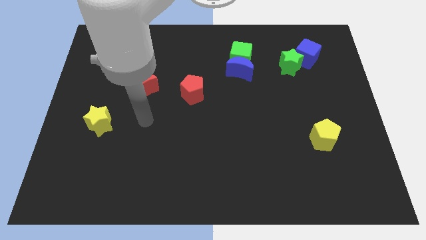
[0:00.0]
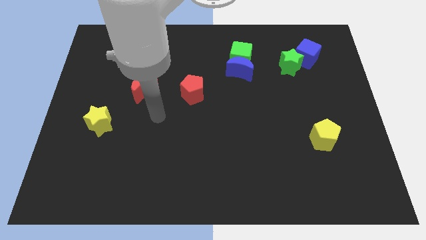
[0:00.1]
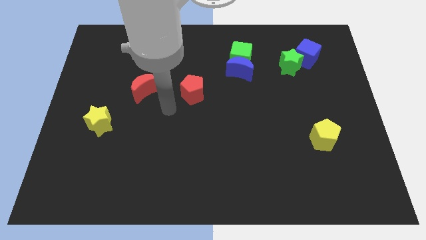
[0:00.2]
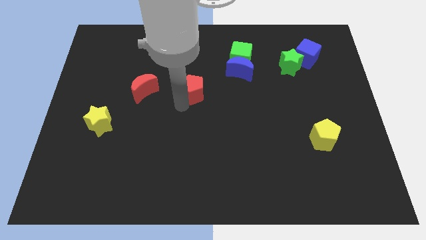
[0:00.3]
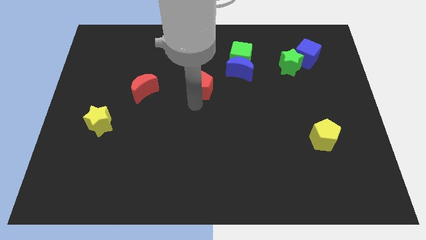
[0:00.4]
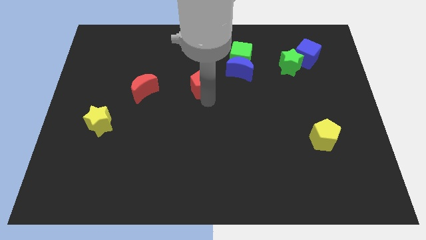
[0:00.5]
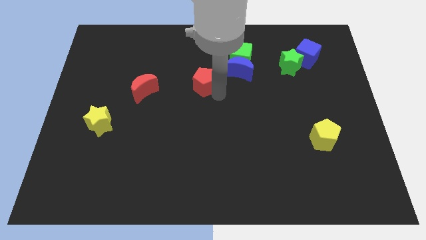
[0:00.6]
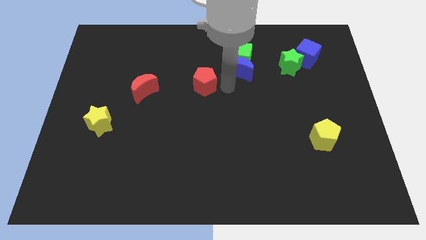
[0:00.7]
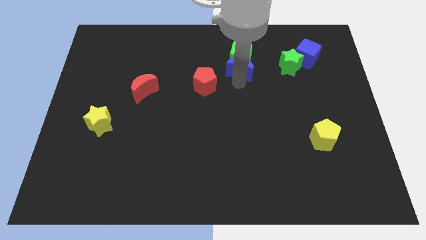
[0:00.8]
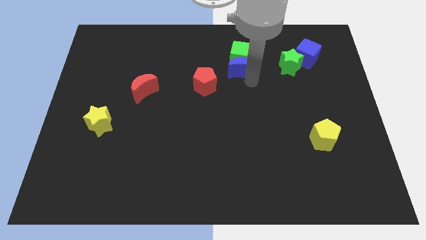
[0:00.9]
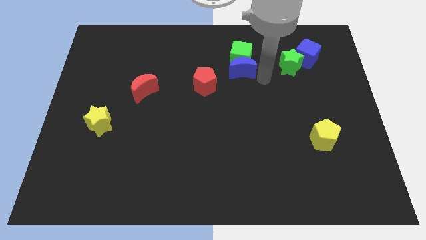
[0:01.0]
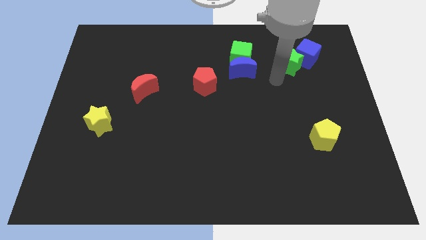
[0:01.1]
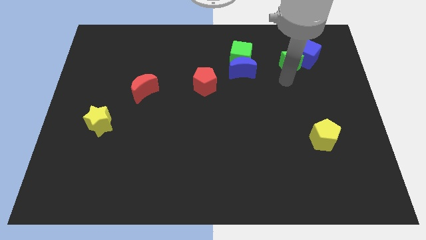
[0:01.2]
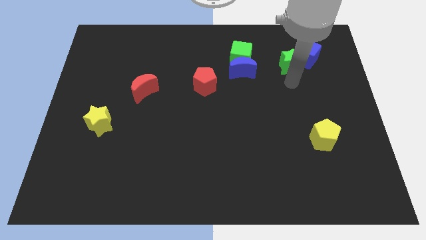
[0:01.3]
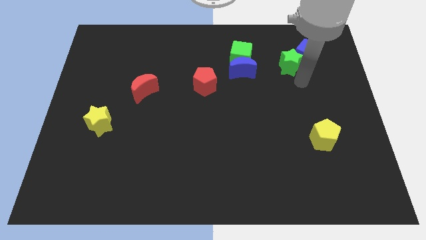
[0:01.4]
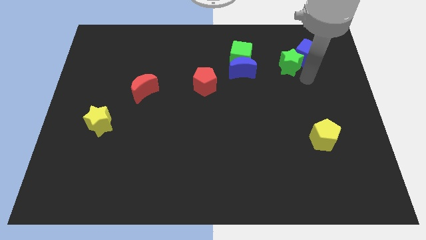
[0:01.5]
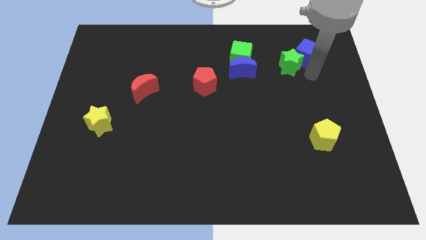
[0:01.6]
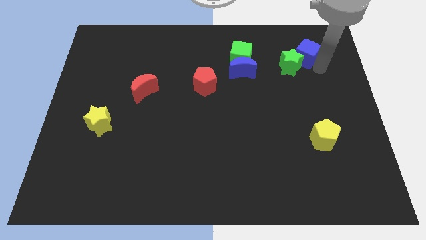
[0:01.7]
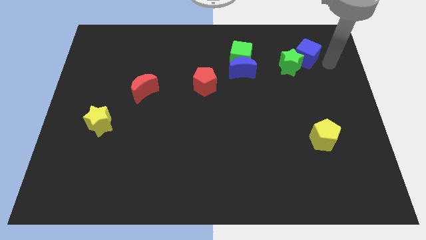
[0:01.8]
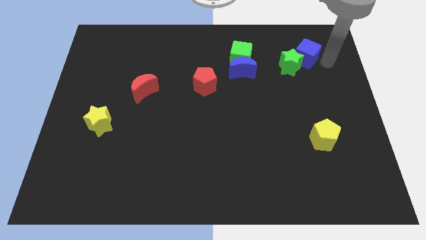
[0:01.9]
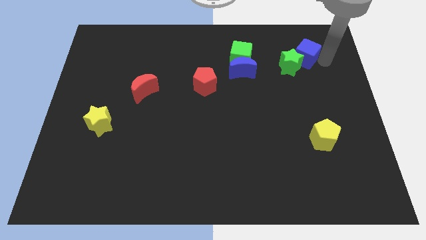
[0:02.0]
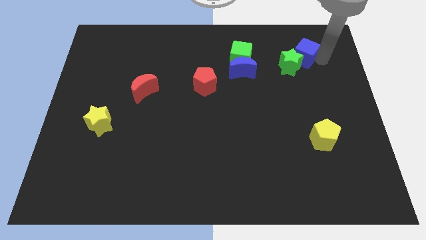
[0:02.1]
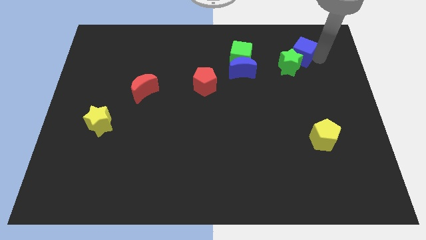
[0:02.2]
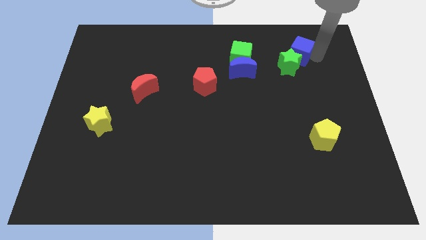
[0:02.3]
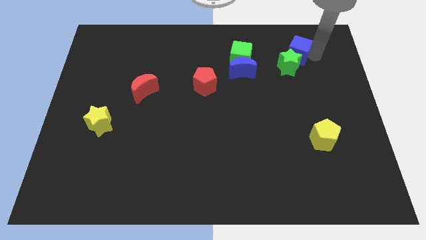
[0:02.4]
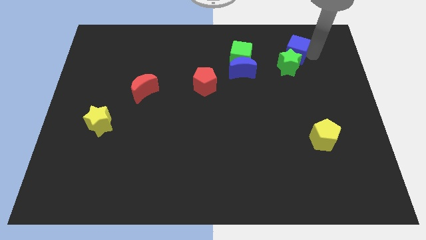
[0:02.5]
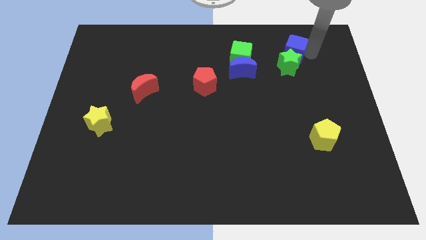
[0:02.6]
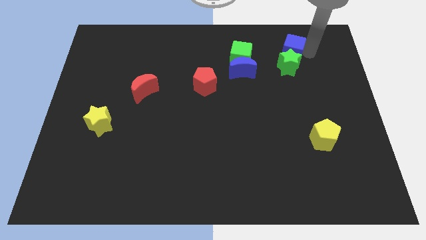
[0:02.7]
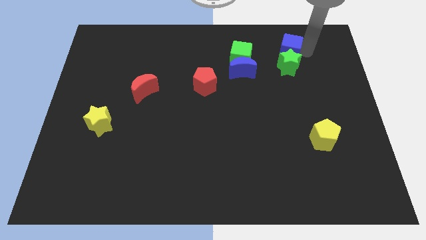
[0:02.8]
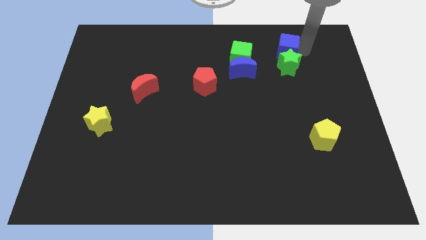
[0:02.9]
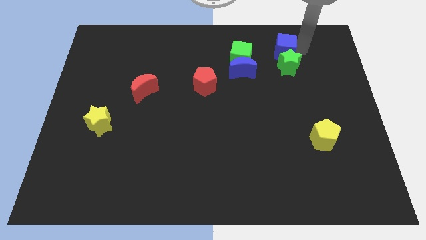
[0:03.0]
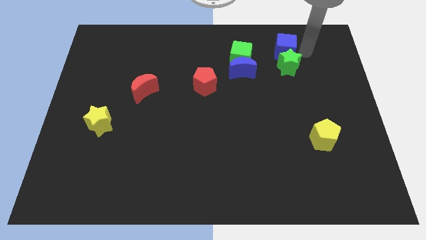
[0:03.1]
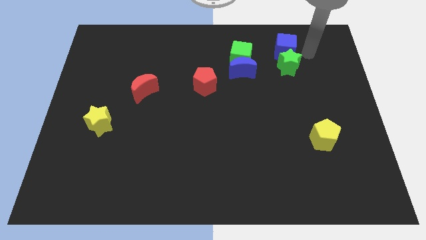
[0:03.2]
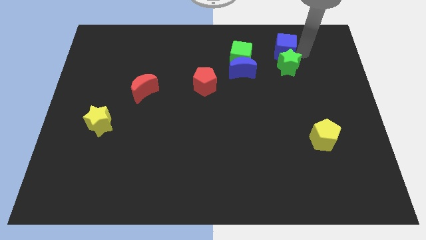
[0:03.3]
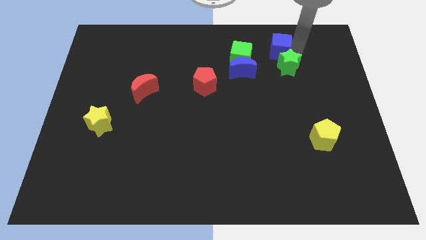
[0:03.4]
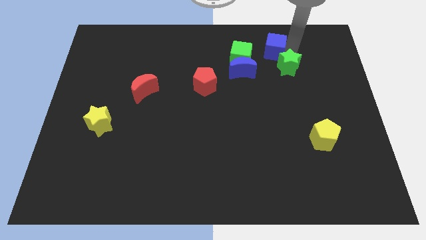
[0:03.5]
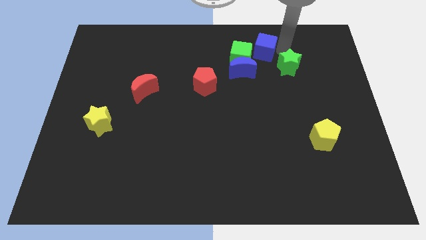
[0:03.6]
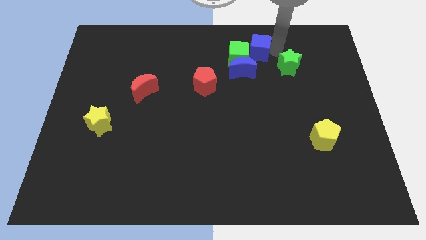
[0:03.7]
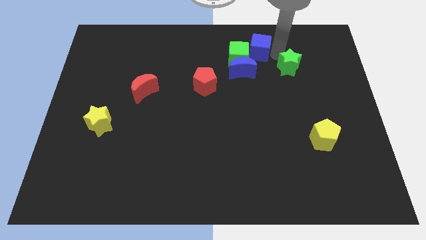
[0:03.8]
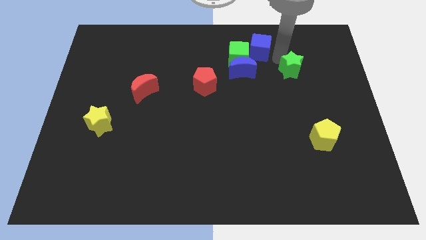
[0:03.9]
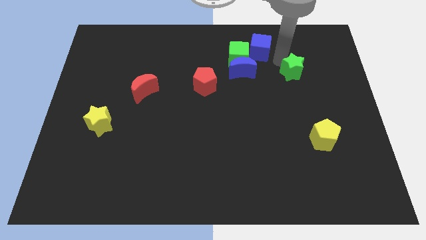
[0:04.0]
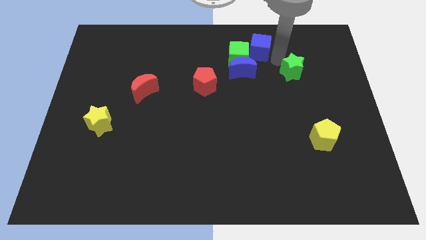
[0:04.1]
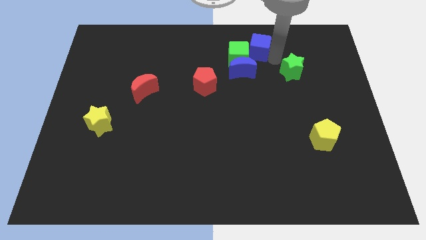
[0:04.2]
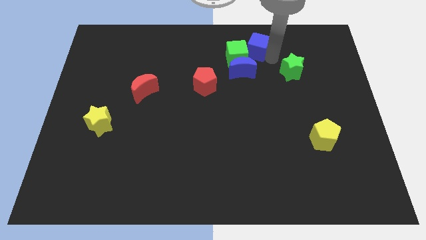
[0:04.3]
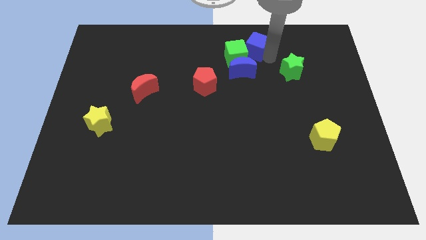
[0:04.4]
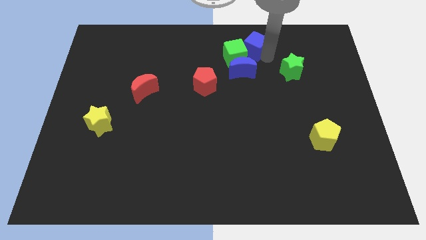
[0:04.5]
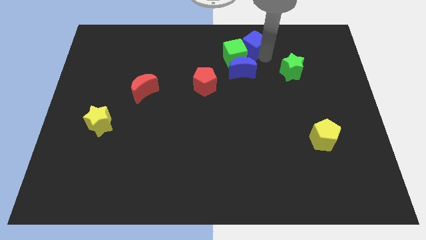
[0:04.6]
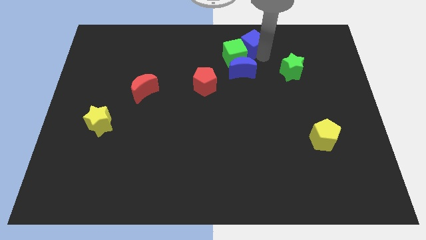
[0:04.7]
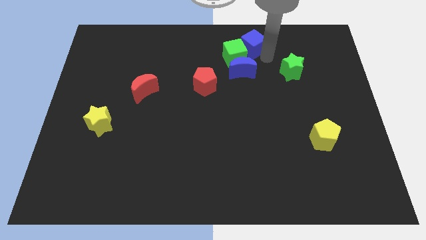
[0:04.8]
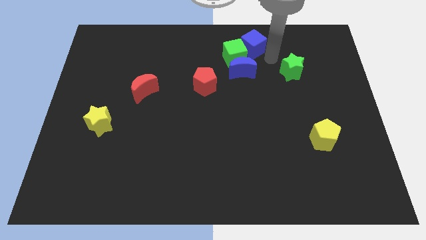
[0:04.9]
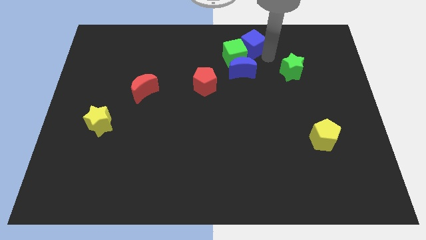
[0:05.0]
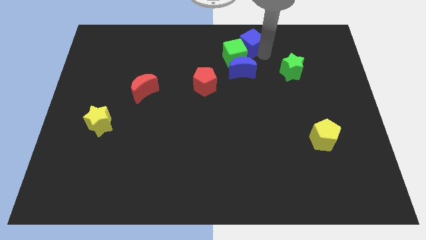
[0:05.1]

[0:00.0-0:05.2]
move the blue cube to the top

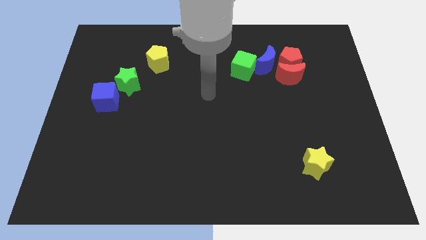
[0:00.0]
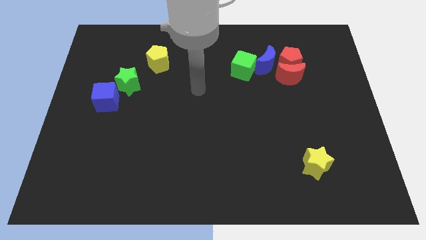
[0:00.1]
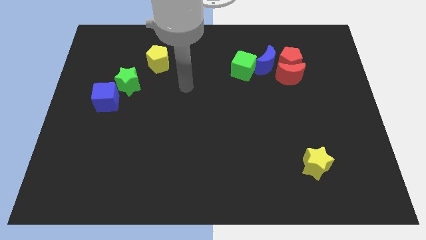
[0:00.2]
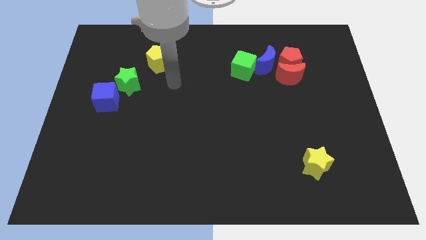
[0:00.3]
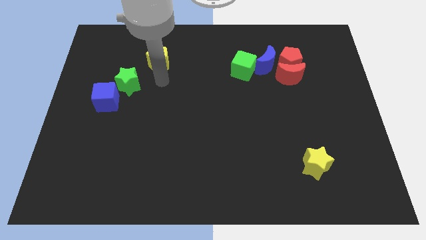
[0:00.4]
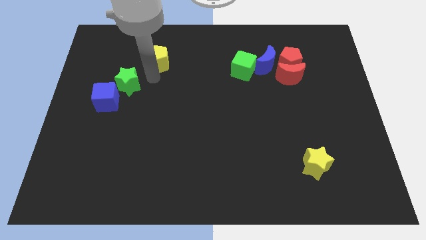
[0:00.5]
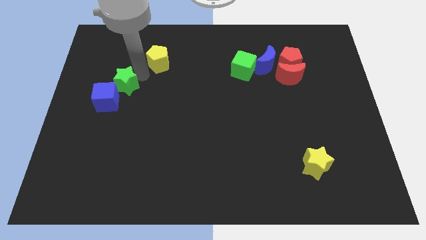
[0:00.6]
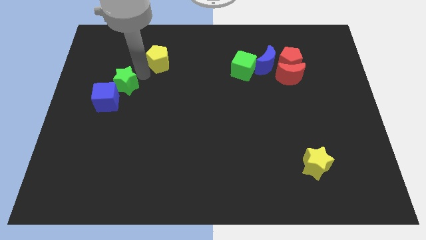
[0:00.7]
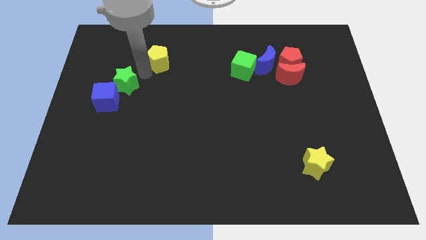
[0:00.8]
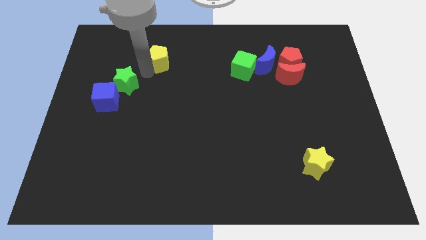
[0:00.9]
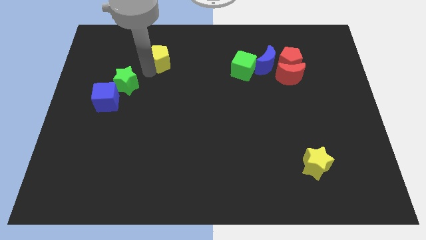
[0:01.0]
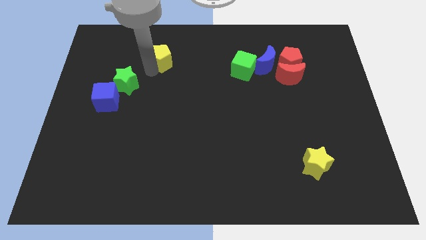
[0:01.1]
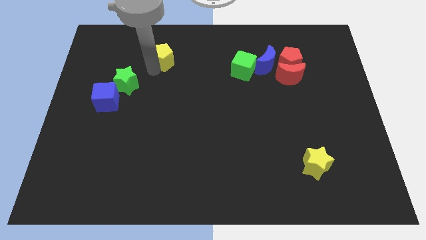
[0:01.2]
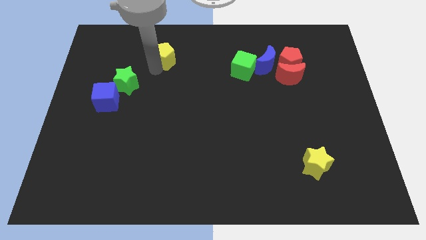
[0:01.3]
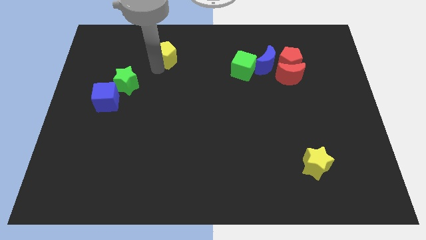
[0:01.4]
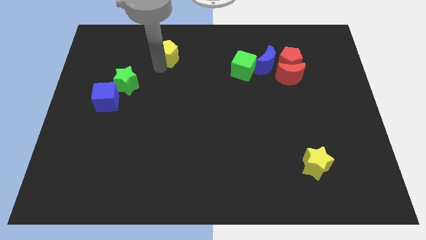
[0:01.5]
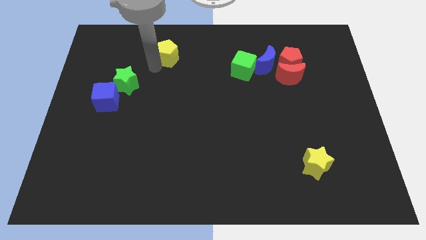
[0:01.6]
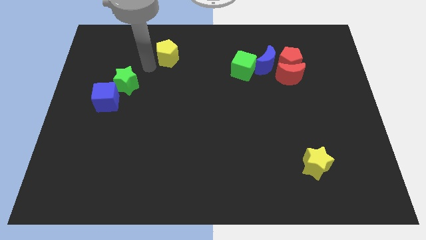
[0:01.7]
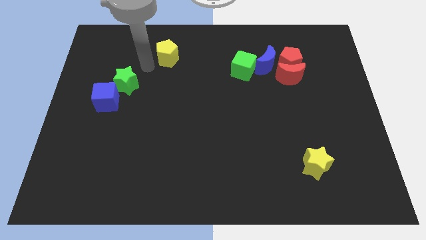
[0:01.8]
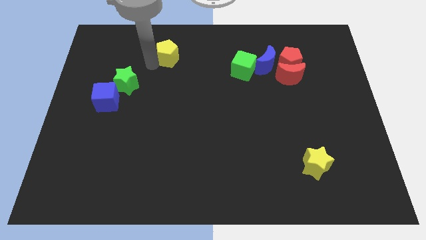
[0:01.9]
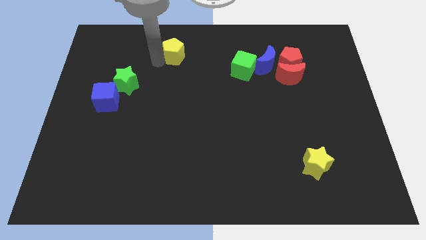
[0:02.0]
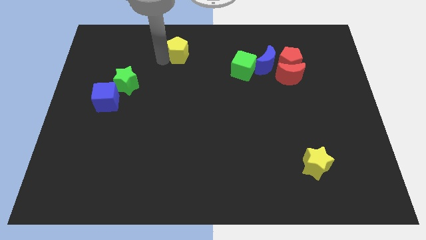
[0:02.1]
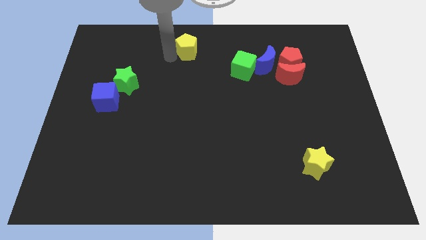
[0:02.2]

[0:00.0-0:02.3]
put the yellow pentagon to the top

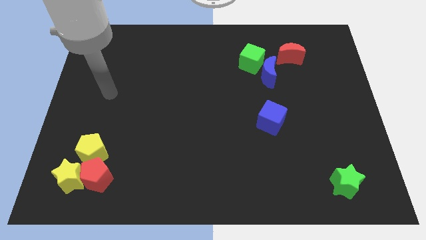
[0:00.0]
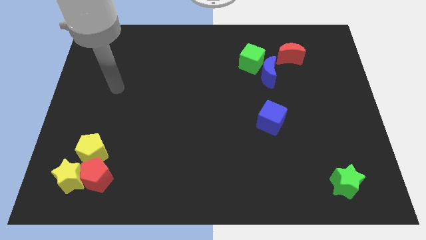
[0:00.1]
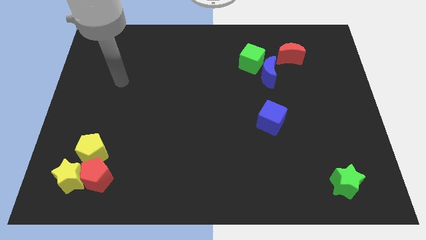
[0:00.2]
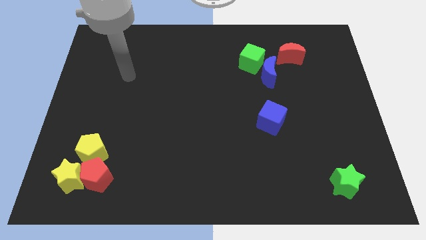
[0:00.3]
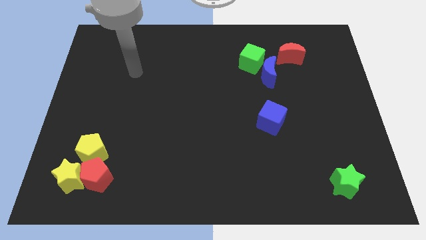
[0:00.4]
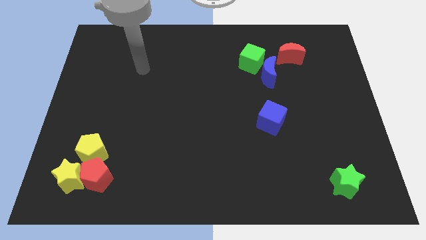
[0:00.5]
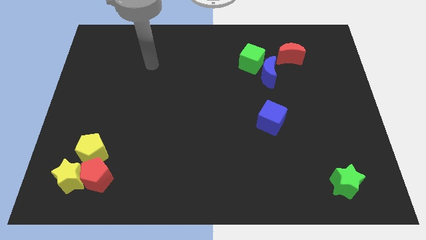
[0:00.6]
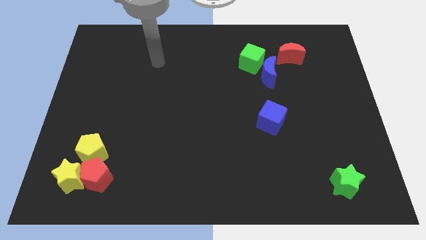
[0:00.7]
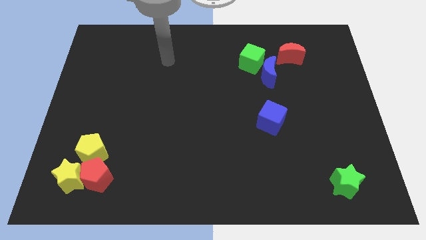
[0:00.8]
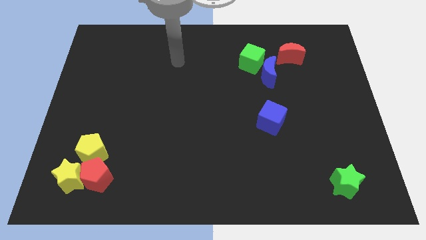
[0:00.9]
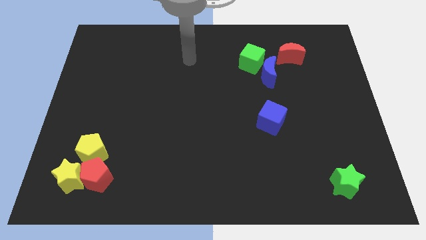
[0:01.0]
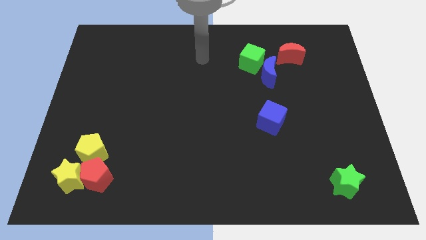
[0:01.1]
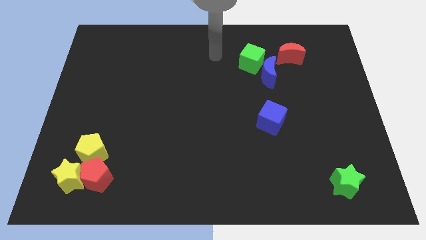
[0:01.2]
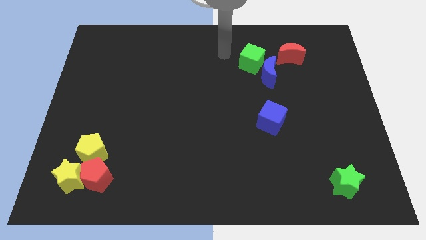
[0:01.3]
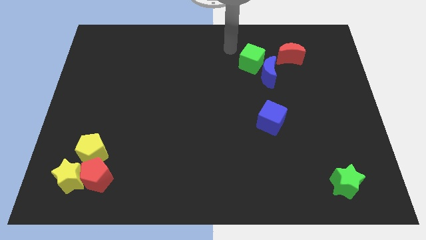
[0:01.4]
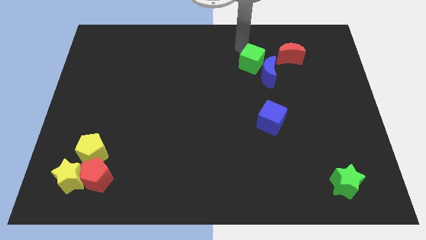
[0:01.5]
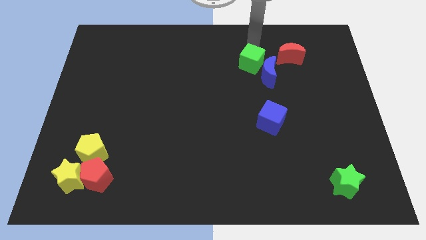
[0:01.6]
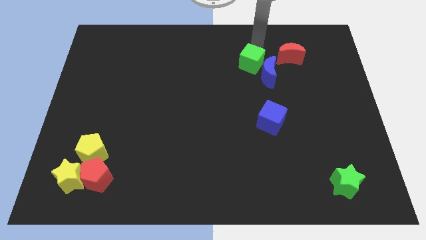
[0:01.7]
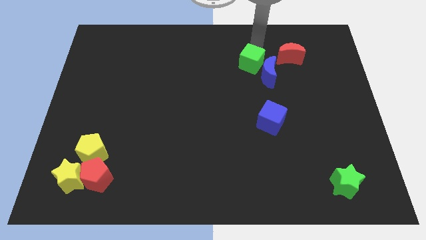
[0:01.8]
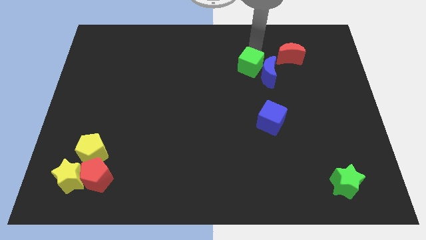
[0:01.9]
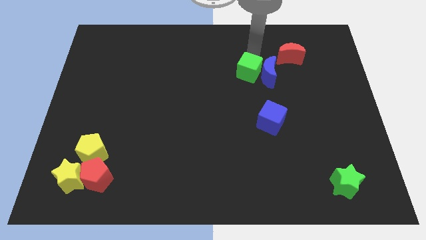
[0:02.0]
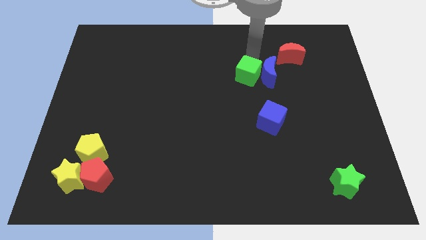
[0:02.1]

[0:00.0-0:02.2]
move the green cube to the middle of the board
